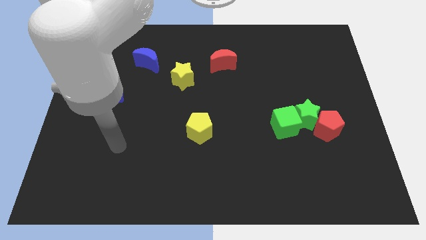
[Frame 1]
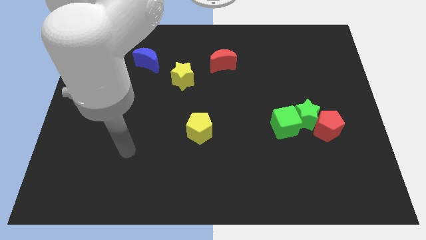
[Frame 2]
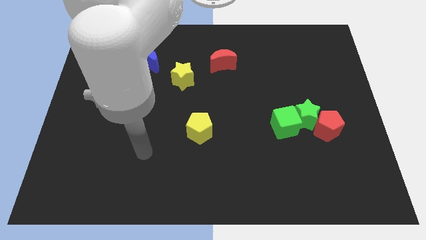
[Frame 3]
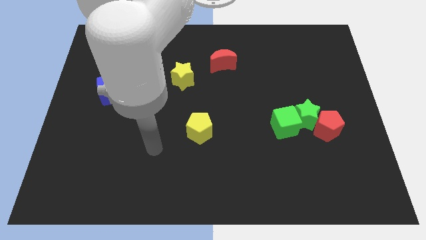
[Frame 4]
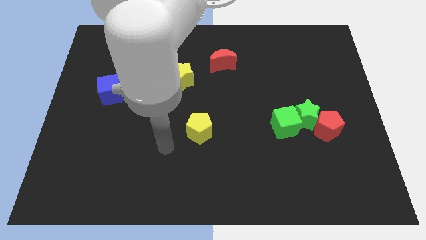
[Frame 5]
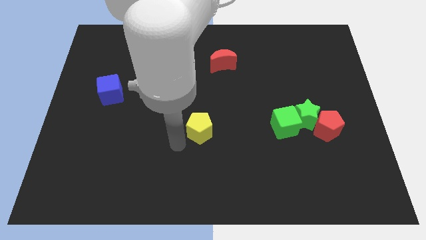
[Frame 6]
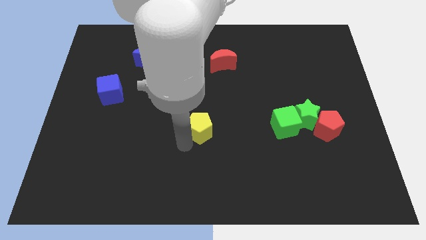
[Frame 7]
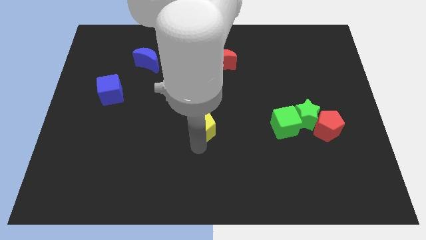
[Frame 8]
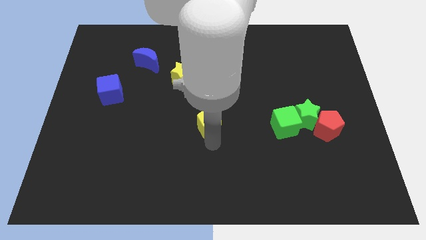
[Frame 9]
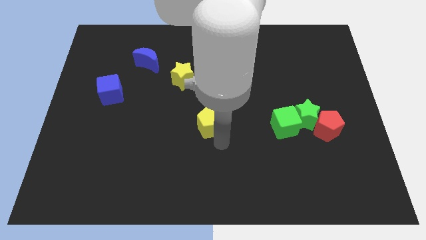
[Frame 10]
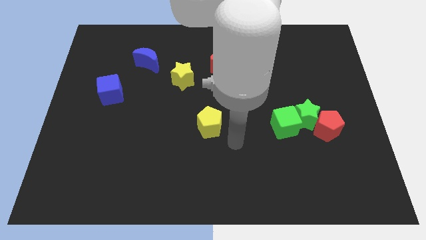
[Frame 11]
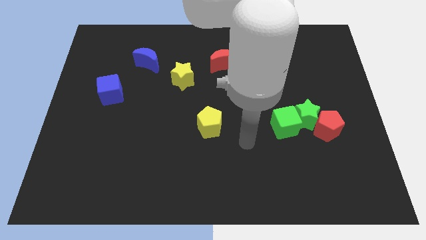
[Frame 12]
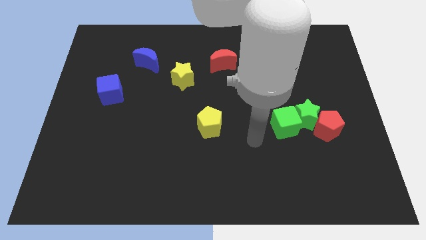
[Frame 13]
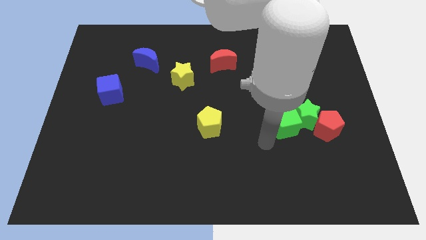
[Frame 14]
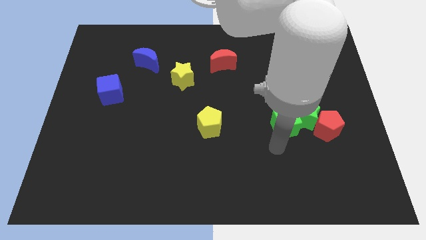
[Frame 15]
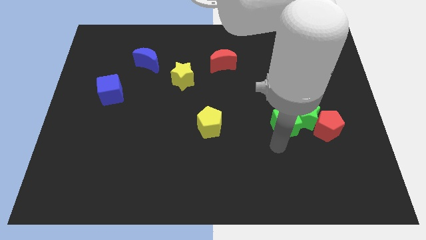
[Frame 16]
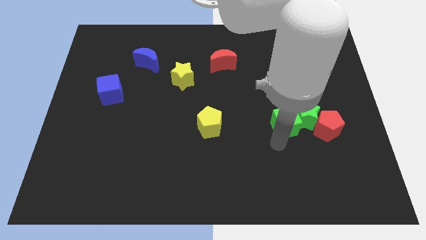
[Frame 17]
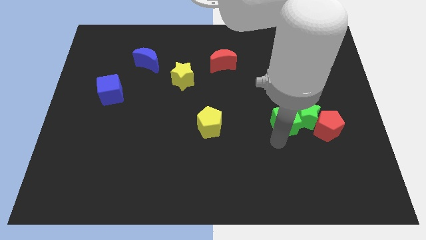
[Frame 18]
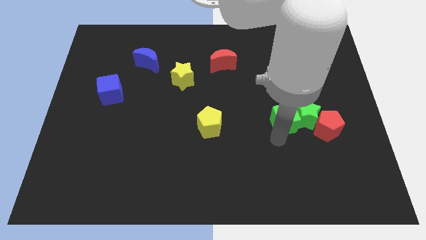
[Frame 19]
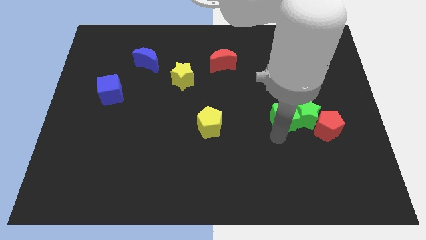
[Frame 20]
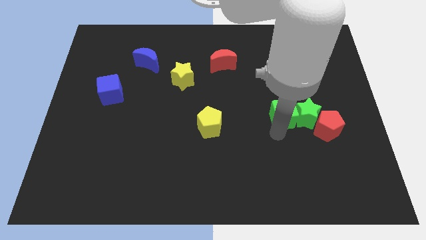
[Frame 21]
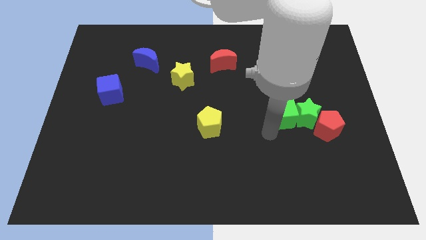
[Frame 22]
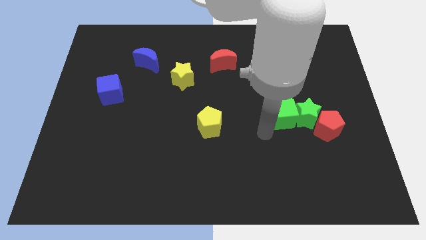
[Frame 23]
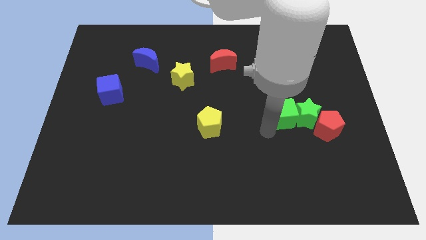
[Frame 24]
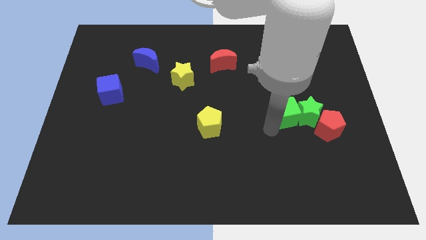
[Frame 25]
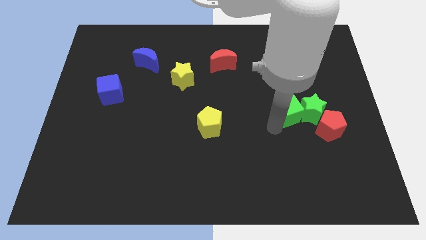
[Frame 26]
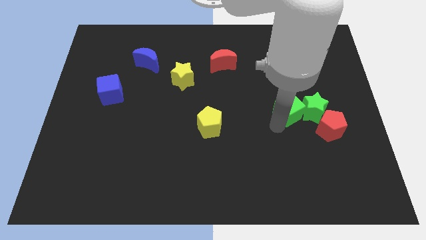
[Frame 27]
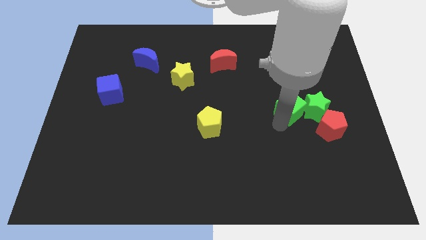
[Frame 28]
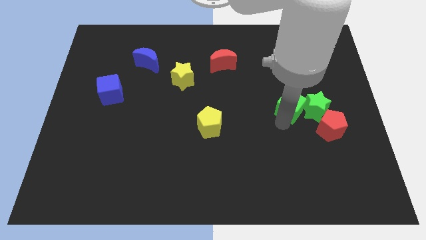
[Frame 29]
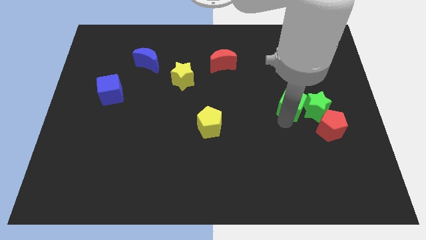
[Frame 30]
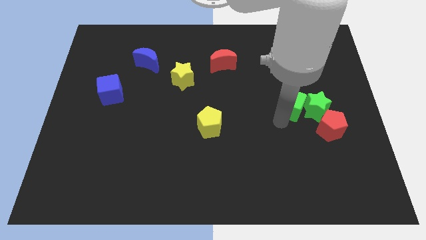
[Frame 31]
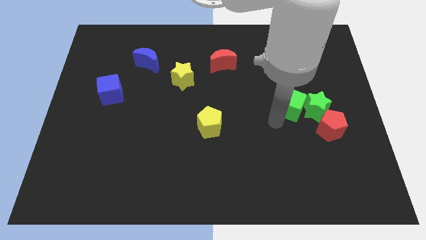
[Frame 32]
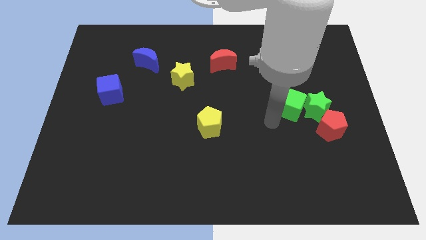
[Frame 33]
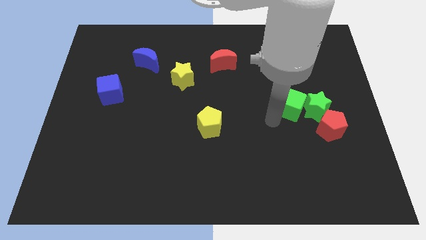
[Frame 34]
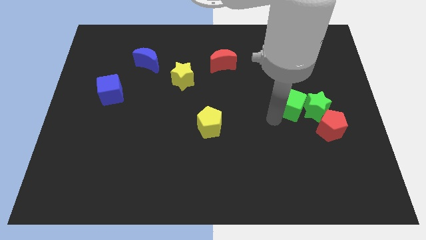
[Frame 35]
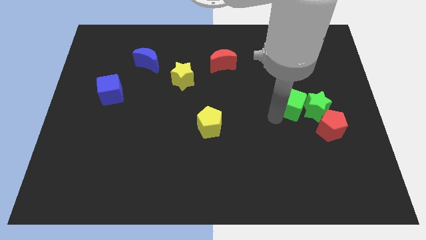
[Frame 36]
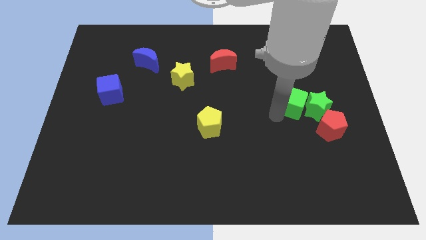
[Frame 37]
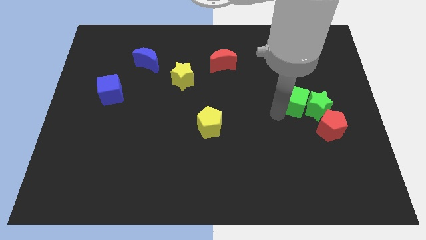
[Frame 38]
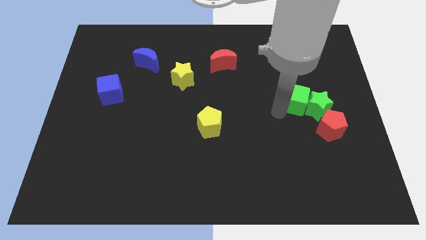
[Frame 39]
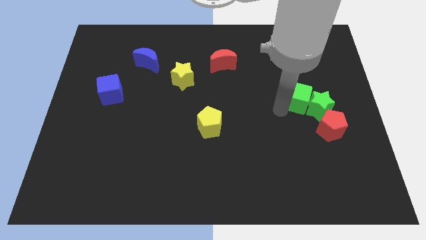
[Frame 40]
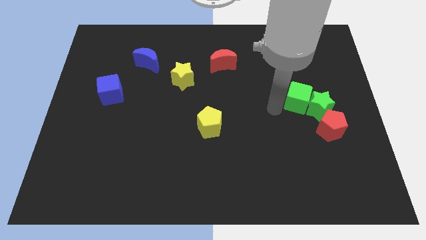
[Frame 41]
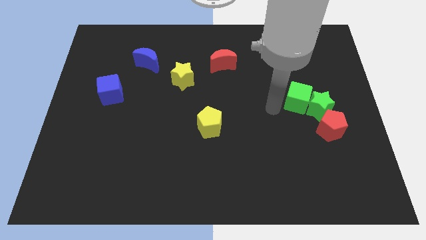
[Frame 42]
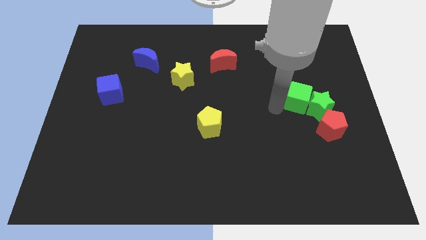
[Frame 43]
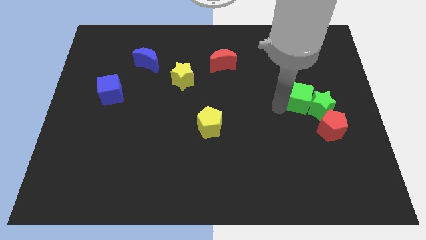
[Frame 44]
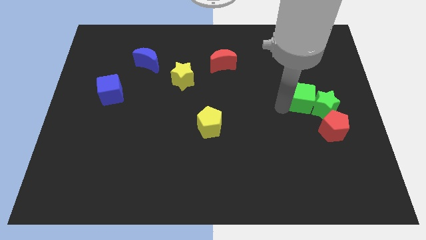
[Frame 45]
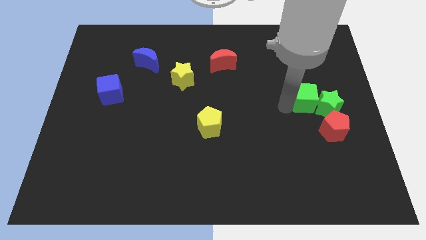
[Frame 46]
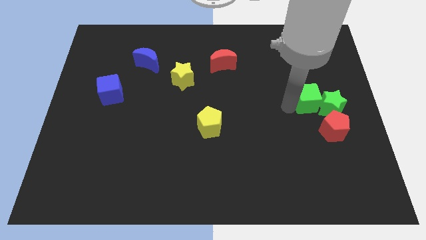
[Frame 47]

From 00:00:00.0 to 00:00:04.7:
put the green cube to the top side of the red pentagon

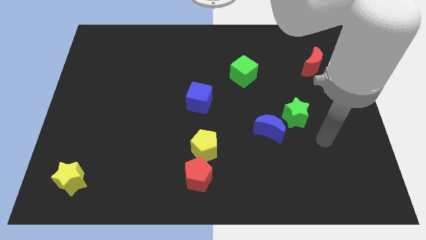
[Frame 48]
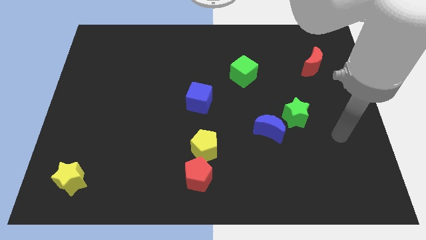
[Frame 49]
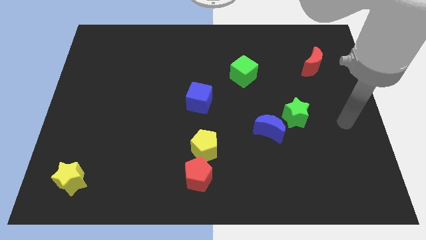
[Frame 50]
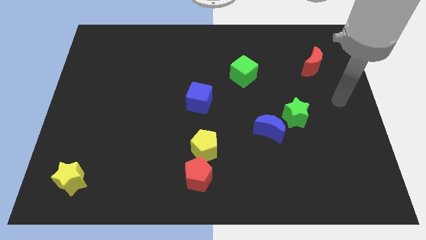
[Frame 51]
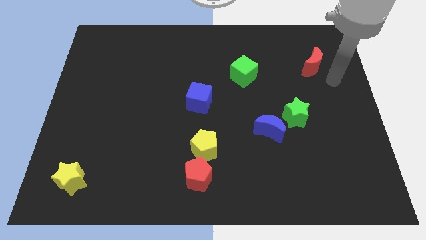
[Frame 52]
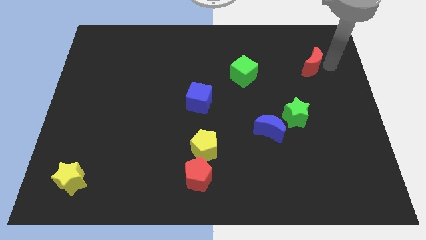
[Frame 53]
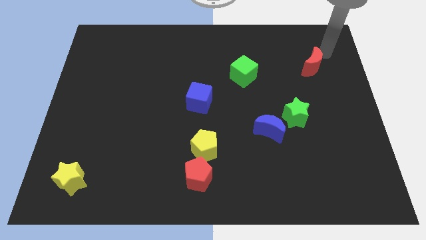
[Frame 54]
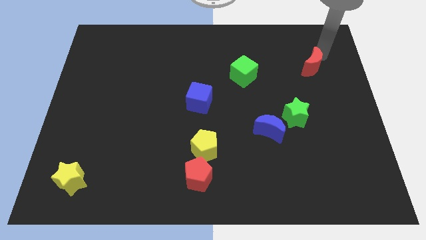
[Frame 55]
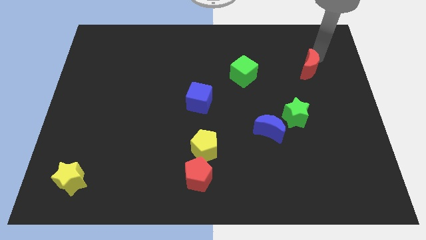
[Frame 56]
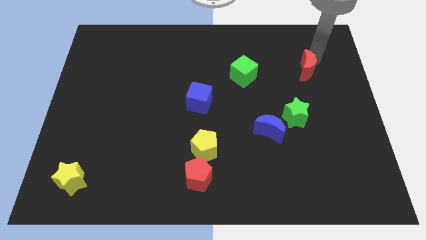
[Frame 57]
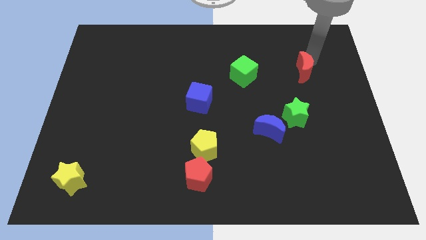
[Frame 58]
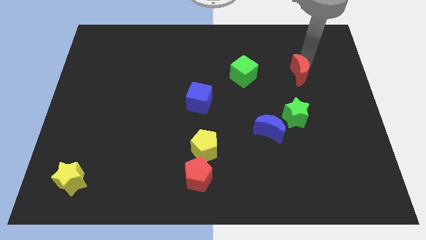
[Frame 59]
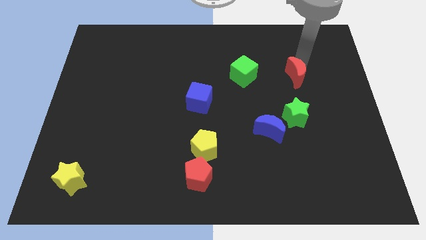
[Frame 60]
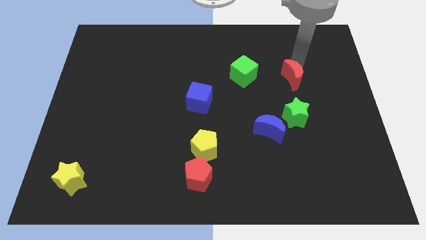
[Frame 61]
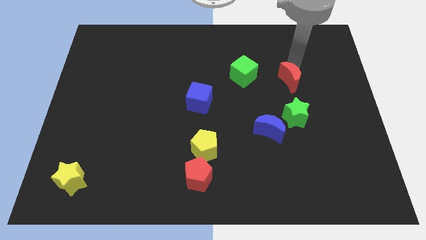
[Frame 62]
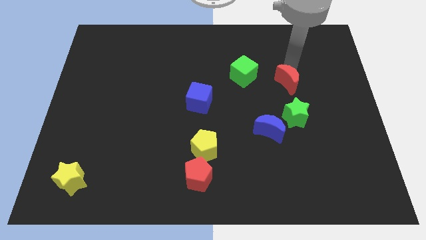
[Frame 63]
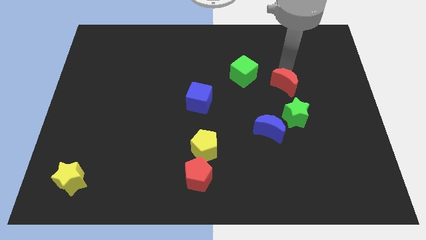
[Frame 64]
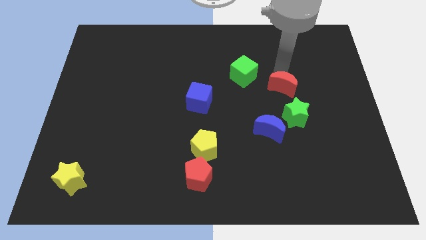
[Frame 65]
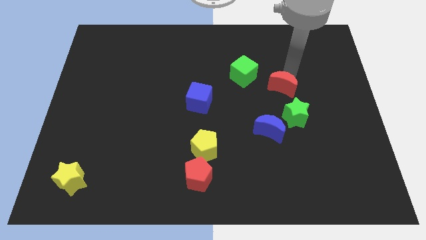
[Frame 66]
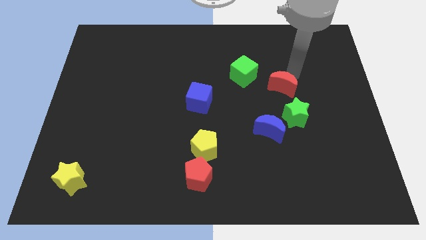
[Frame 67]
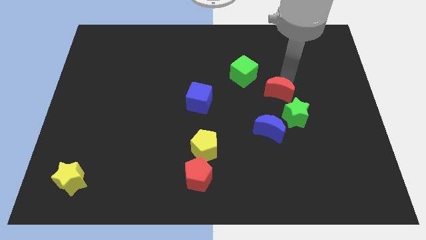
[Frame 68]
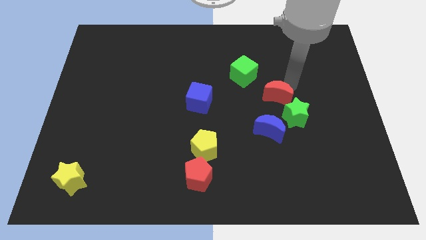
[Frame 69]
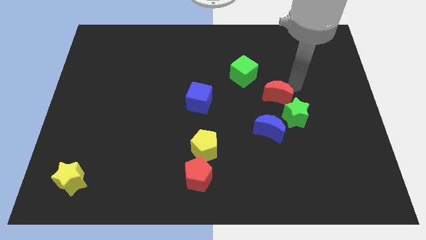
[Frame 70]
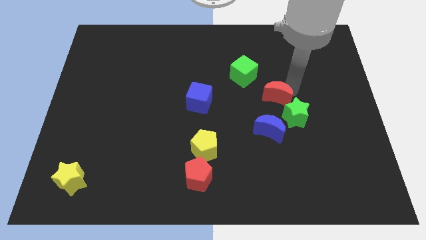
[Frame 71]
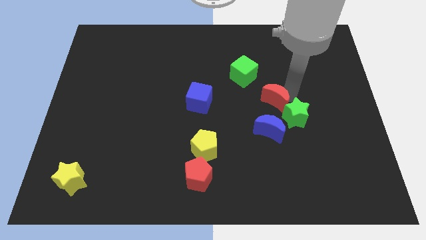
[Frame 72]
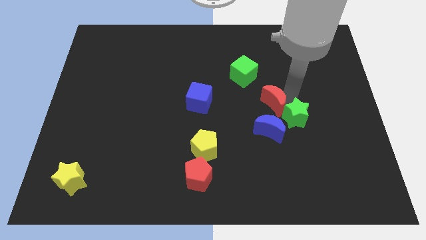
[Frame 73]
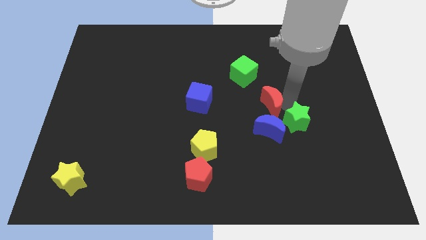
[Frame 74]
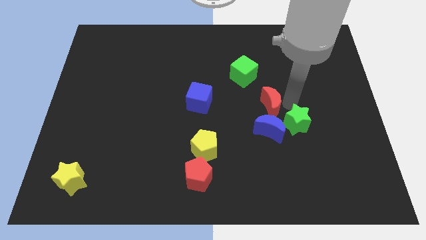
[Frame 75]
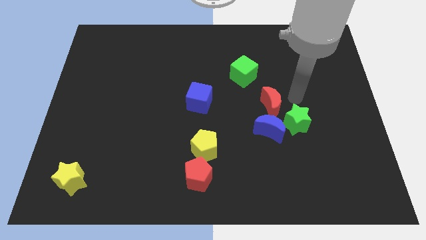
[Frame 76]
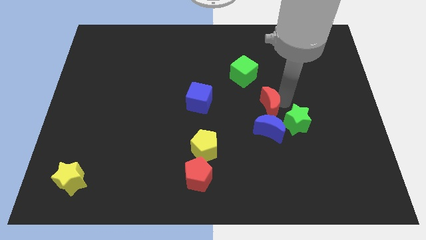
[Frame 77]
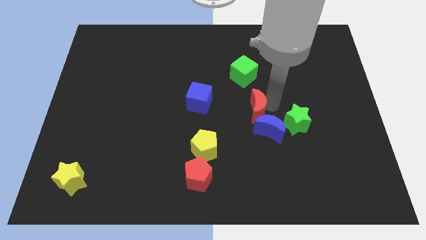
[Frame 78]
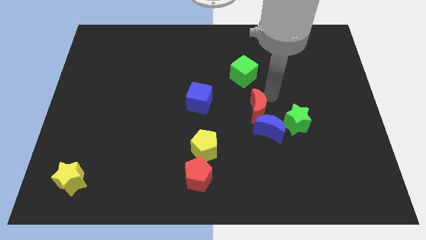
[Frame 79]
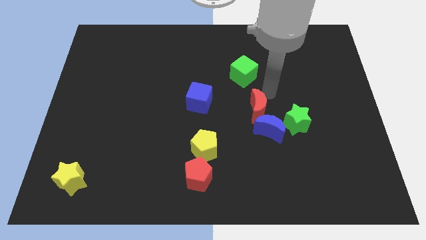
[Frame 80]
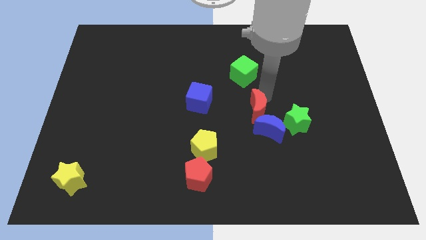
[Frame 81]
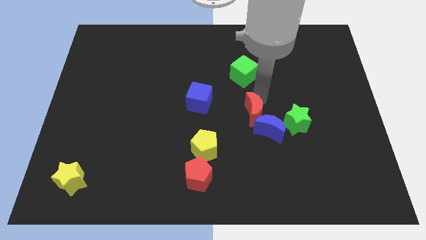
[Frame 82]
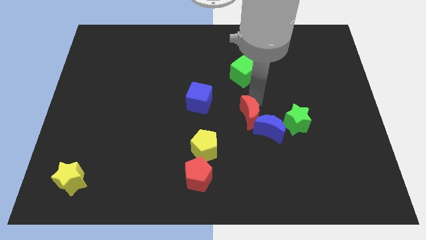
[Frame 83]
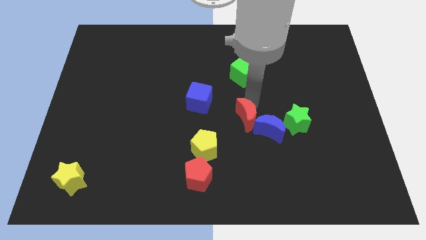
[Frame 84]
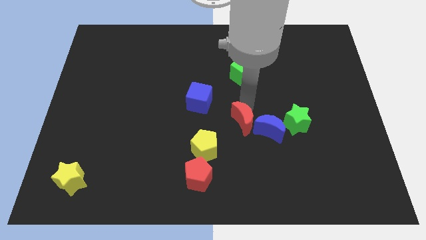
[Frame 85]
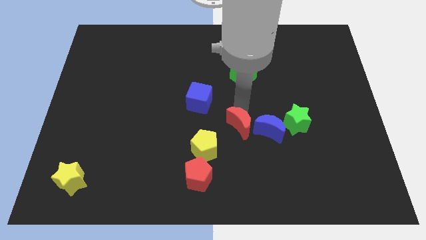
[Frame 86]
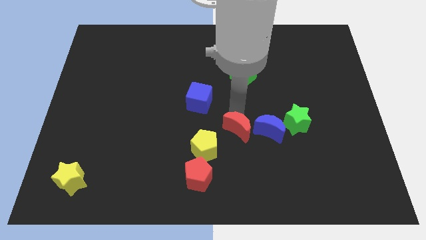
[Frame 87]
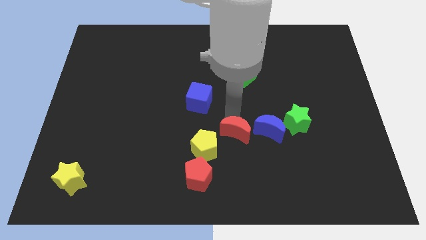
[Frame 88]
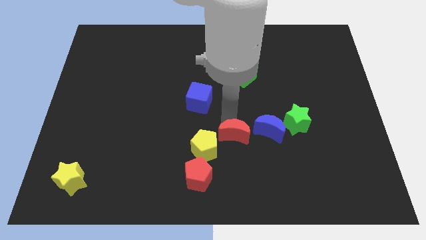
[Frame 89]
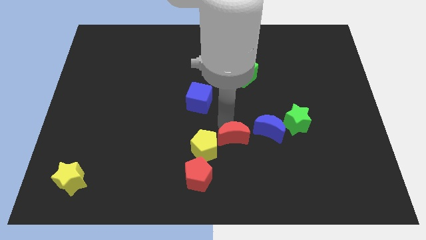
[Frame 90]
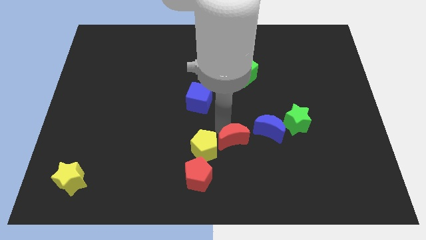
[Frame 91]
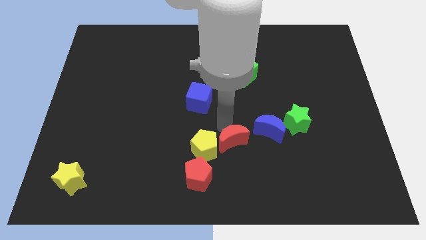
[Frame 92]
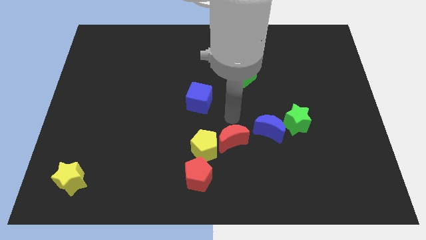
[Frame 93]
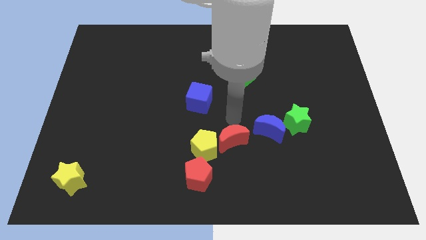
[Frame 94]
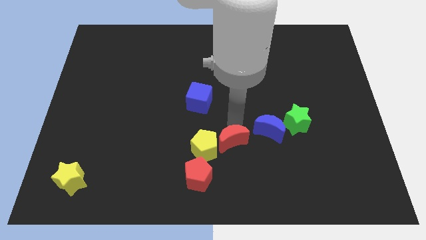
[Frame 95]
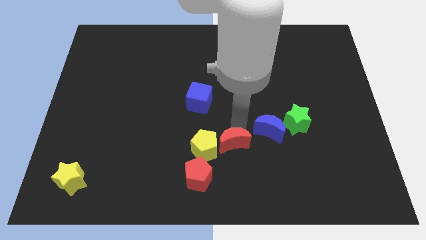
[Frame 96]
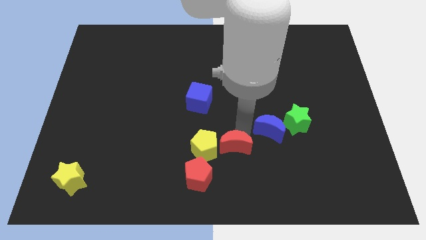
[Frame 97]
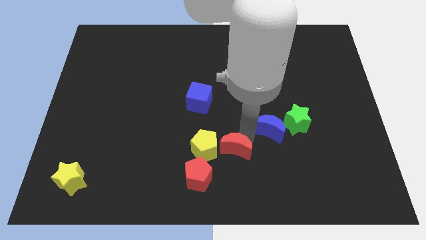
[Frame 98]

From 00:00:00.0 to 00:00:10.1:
push the red moon to the bottom right side of the yellow pentagon
